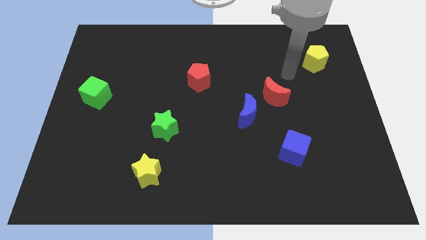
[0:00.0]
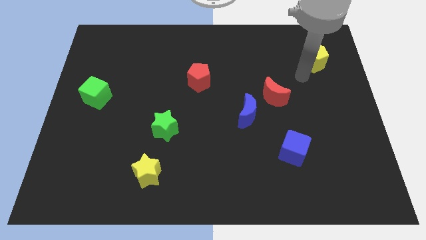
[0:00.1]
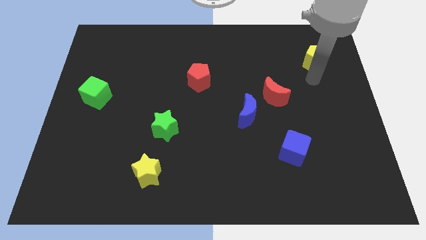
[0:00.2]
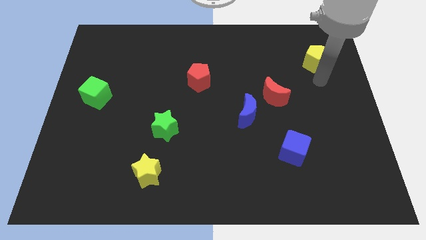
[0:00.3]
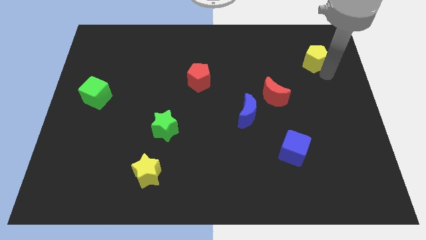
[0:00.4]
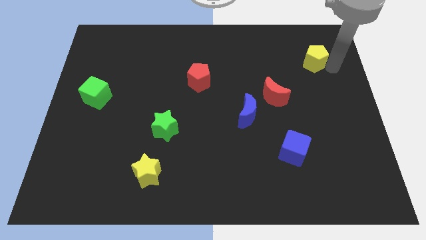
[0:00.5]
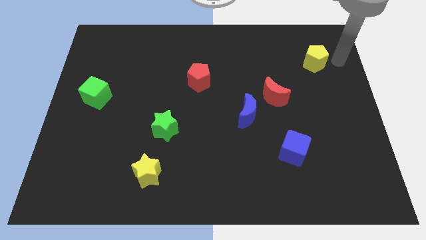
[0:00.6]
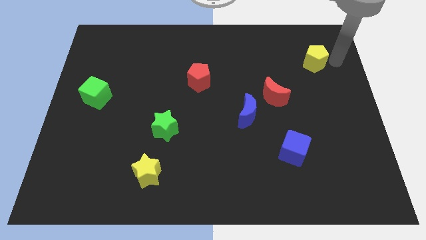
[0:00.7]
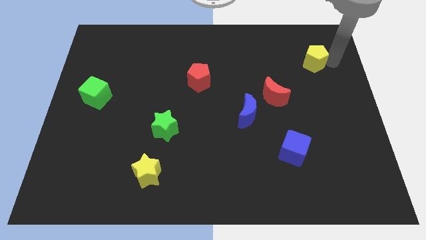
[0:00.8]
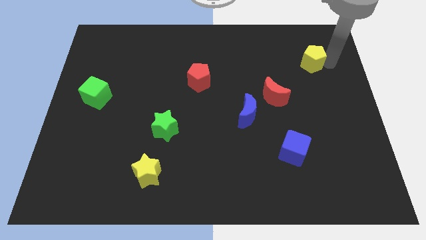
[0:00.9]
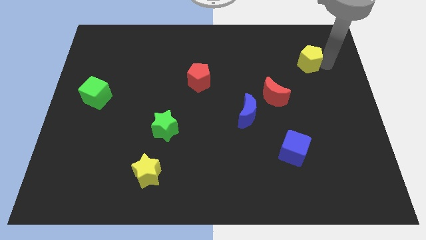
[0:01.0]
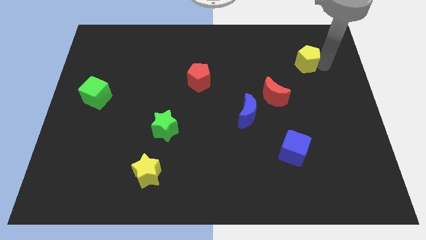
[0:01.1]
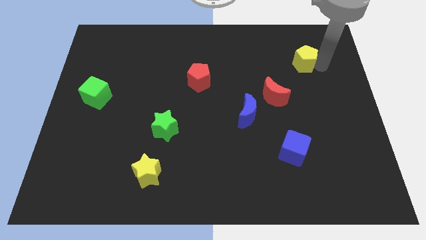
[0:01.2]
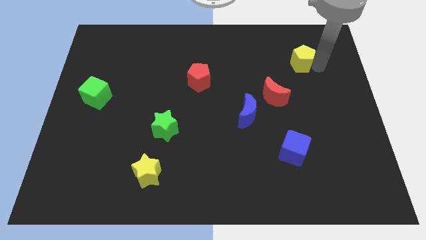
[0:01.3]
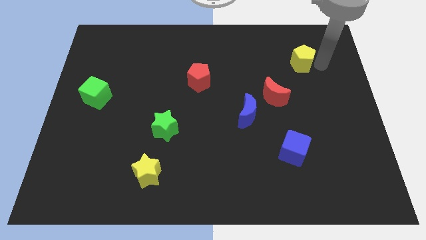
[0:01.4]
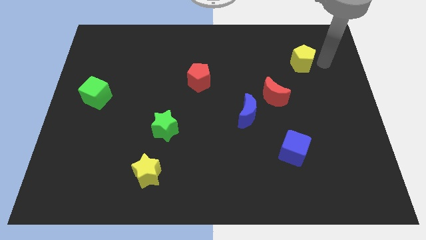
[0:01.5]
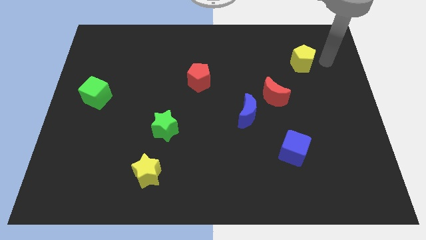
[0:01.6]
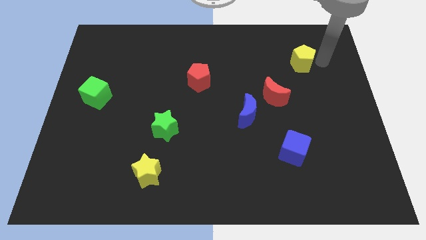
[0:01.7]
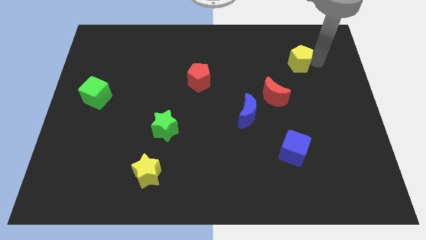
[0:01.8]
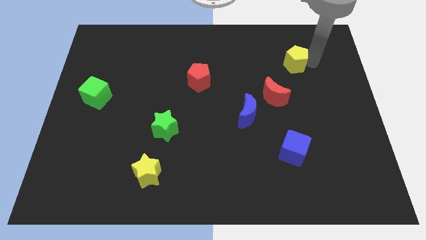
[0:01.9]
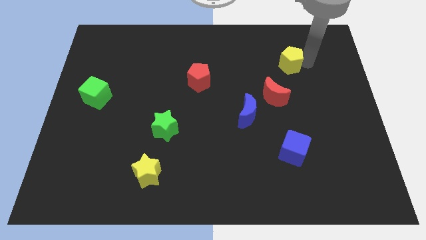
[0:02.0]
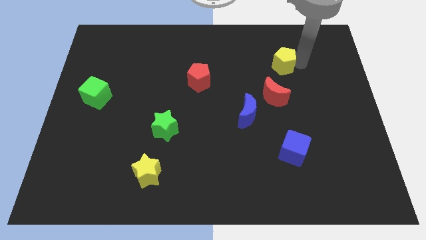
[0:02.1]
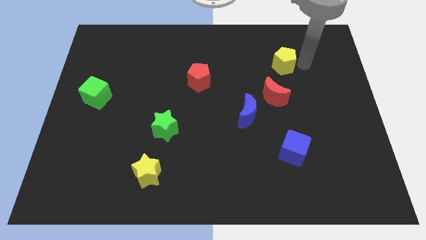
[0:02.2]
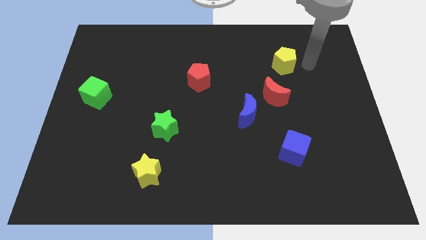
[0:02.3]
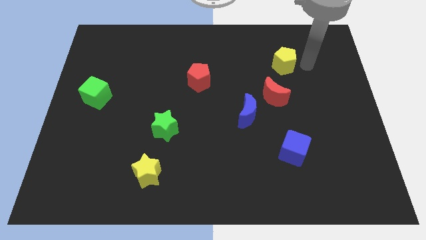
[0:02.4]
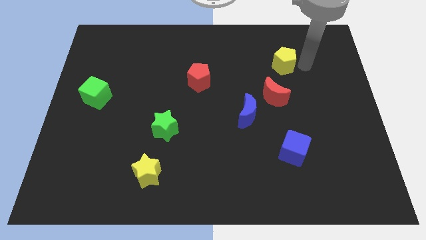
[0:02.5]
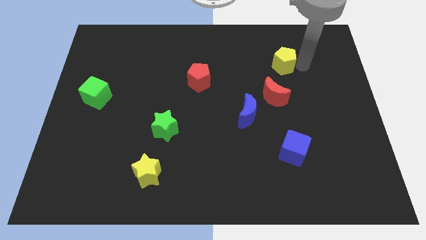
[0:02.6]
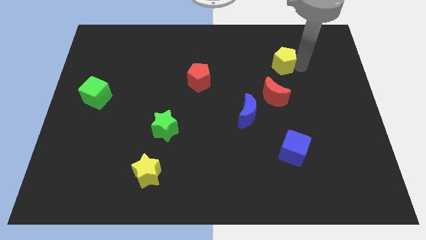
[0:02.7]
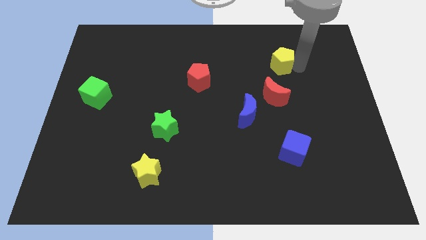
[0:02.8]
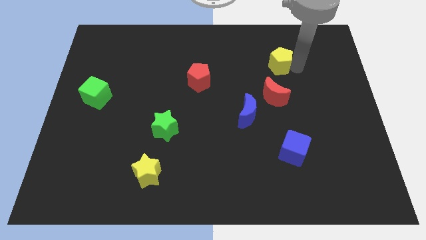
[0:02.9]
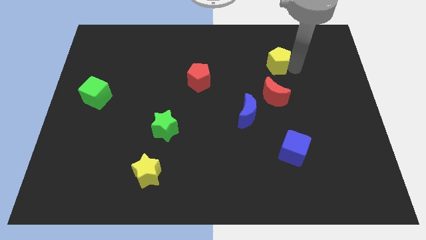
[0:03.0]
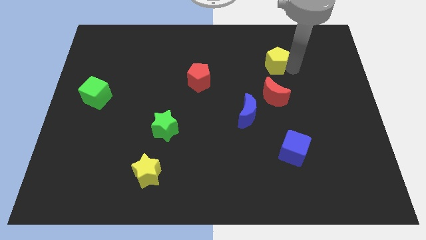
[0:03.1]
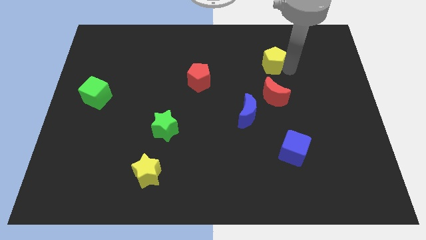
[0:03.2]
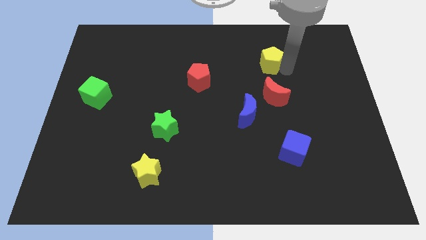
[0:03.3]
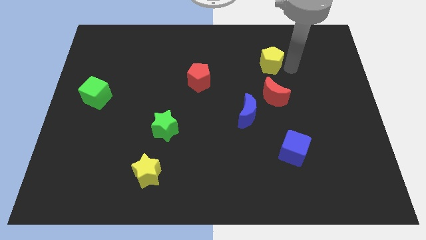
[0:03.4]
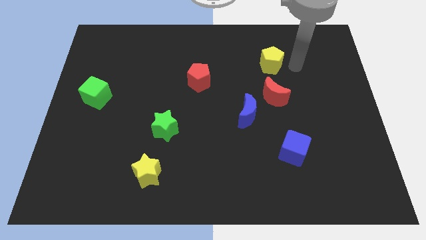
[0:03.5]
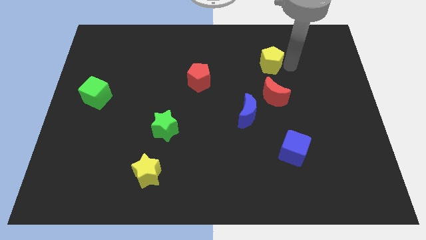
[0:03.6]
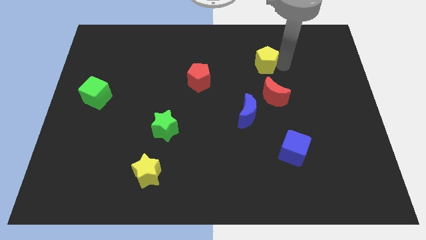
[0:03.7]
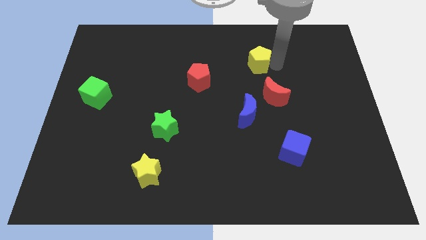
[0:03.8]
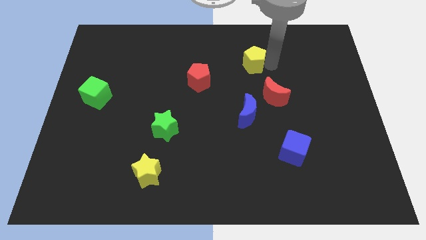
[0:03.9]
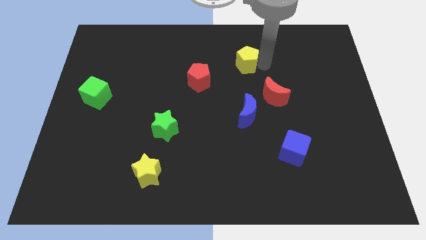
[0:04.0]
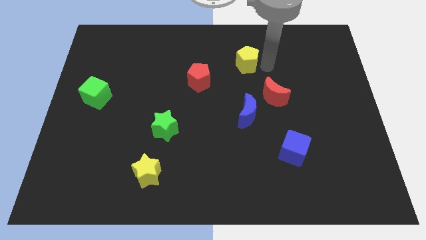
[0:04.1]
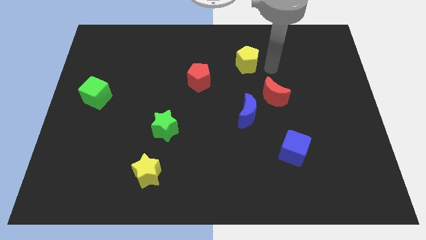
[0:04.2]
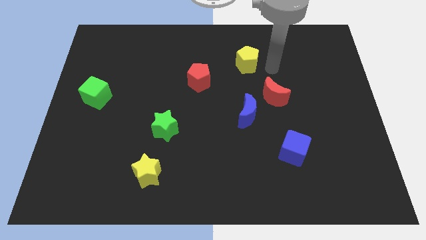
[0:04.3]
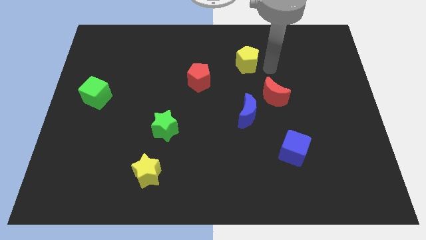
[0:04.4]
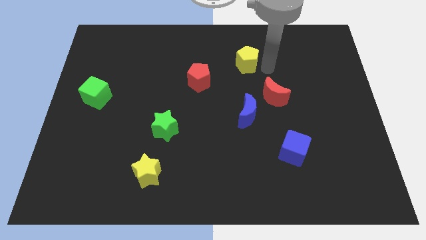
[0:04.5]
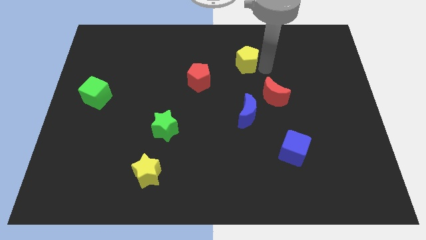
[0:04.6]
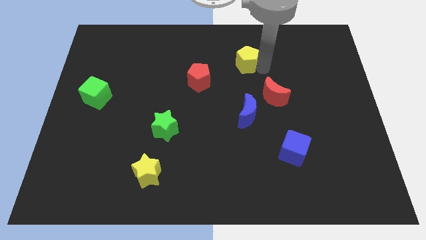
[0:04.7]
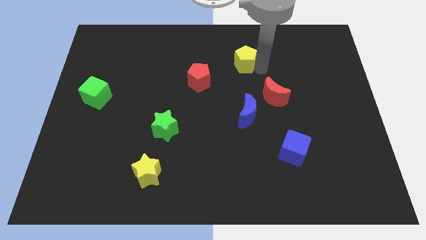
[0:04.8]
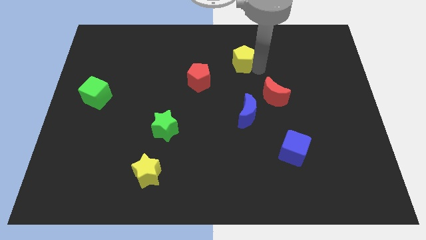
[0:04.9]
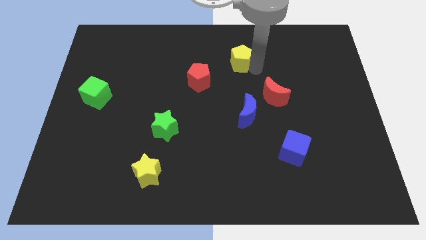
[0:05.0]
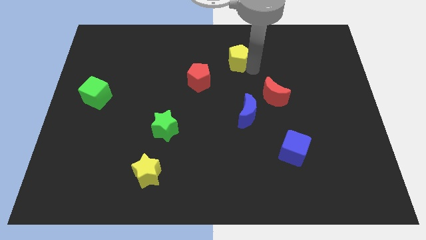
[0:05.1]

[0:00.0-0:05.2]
slide the yellow pentagon to the left

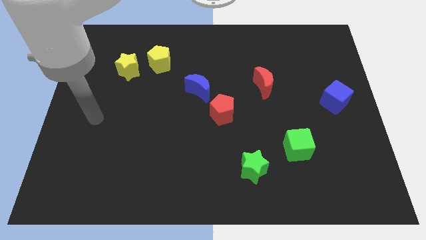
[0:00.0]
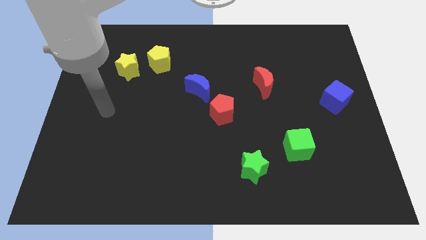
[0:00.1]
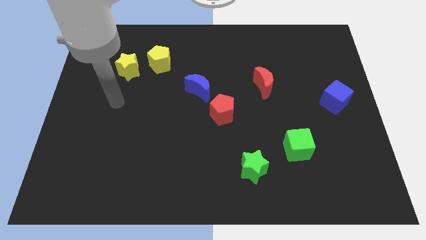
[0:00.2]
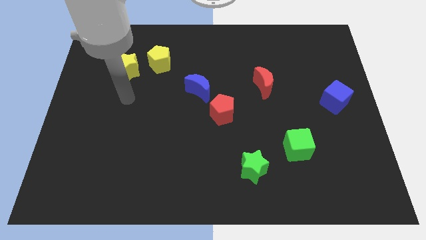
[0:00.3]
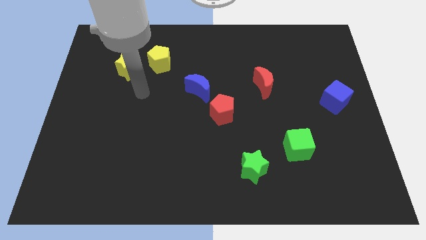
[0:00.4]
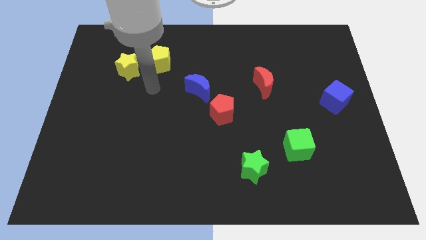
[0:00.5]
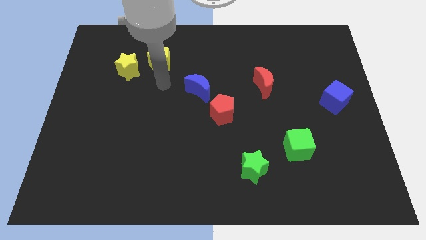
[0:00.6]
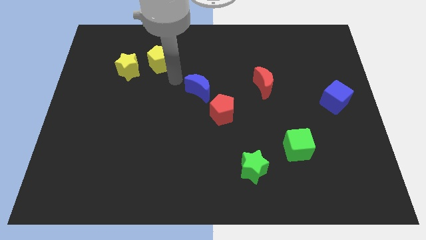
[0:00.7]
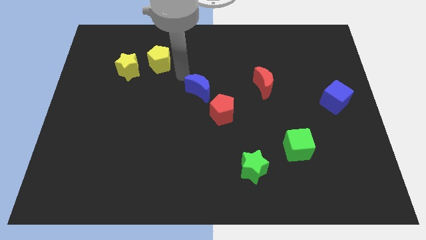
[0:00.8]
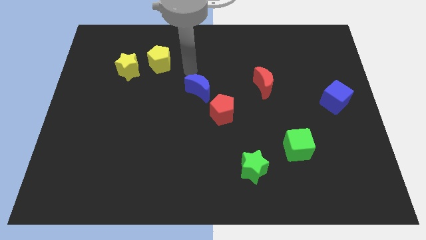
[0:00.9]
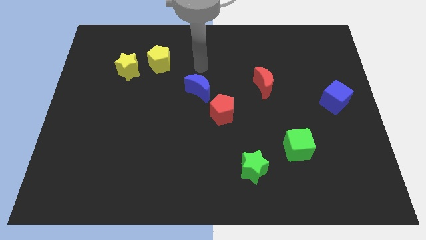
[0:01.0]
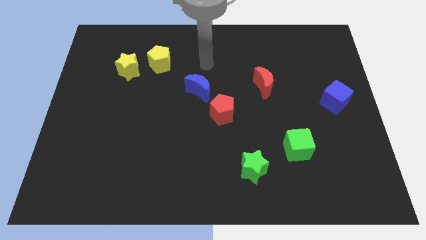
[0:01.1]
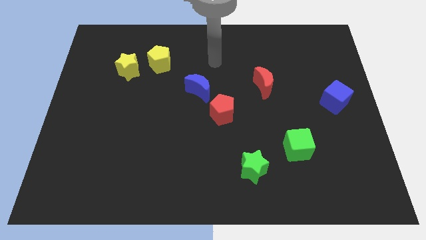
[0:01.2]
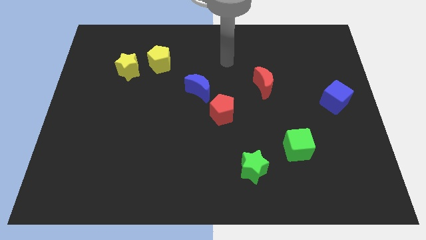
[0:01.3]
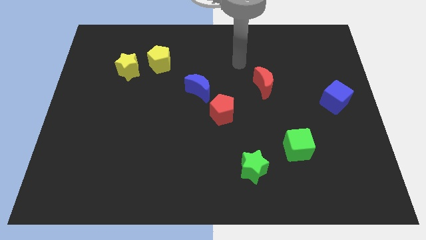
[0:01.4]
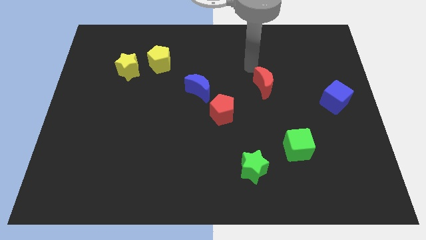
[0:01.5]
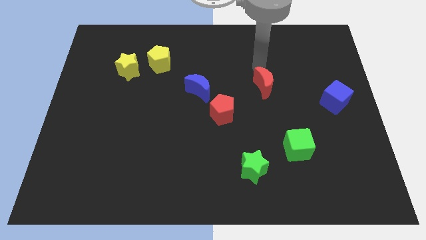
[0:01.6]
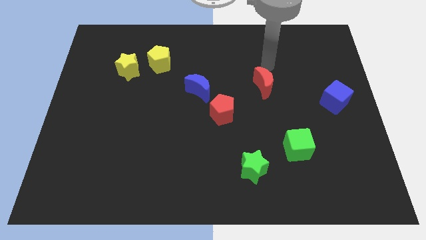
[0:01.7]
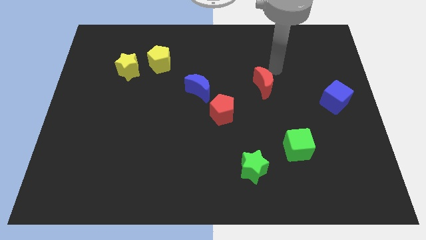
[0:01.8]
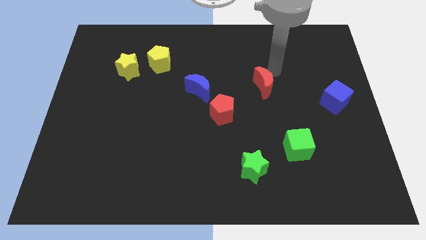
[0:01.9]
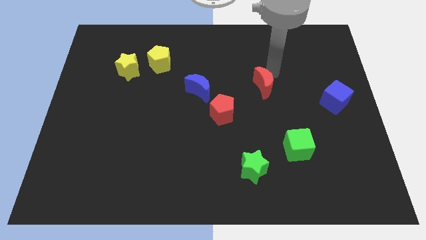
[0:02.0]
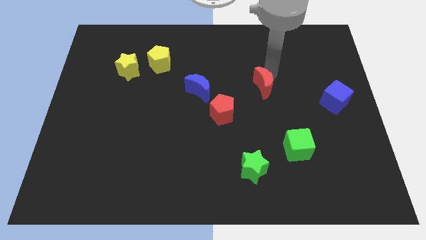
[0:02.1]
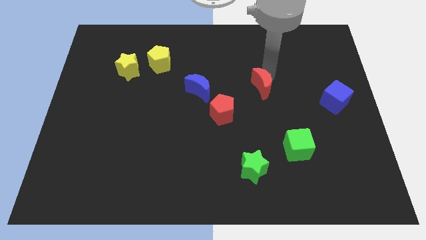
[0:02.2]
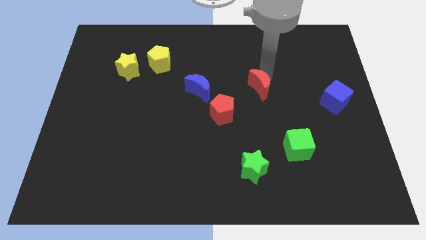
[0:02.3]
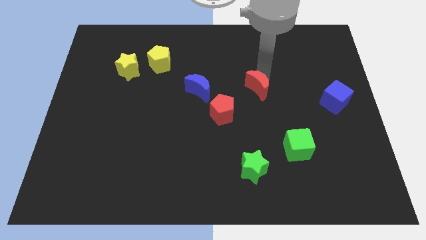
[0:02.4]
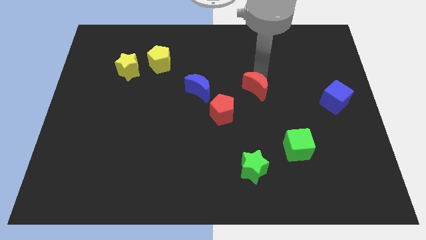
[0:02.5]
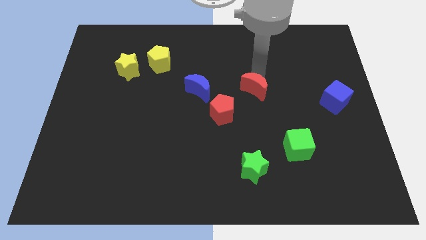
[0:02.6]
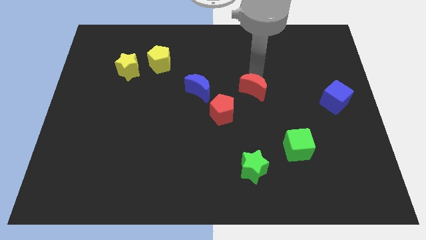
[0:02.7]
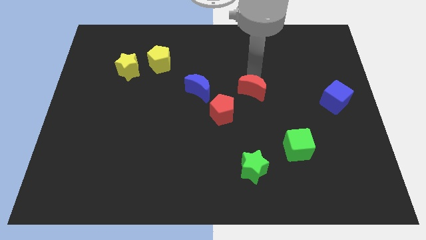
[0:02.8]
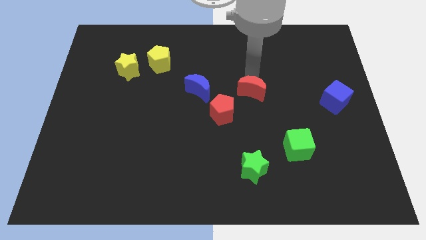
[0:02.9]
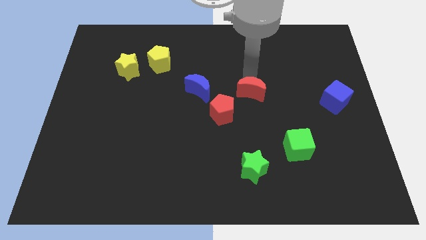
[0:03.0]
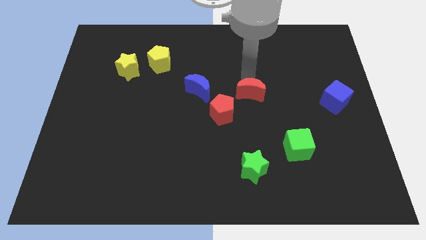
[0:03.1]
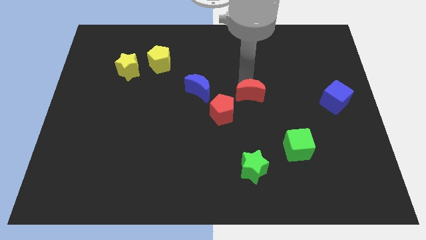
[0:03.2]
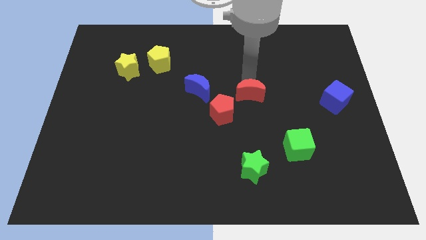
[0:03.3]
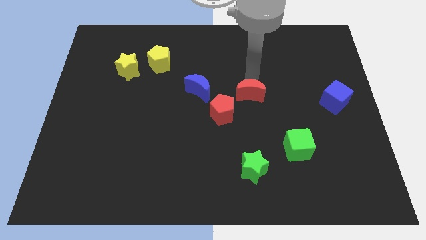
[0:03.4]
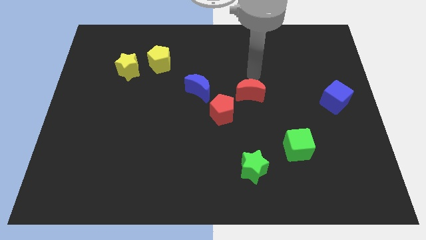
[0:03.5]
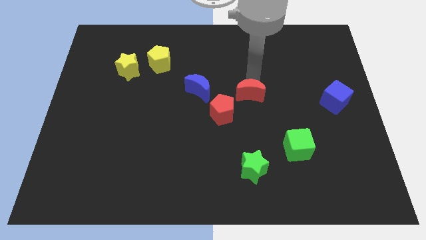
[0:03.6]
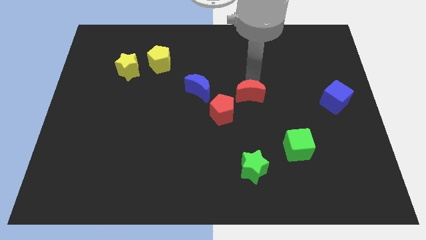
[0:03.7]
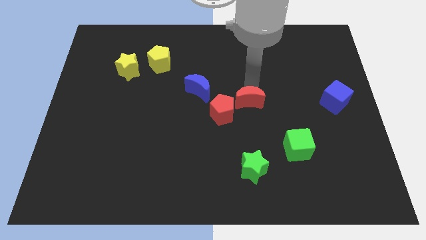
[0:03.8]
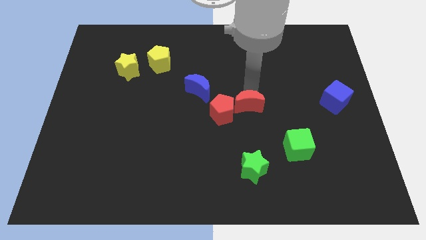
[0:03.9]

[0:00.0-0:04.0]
slide the red moon down and left diagonally somewhat
